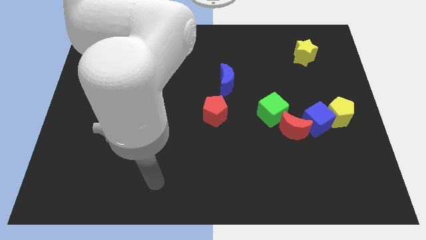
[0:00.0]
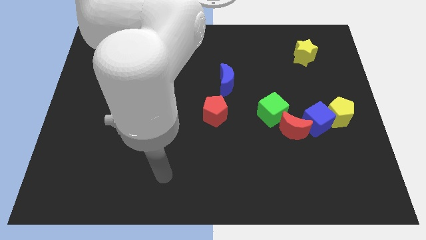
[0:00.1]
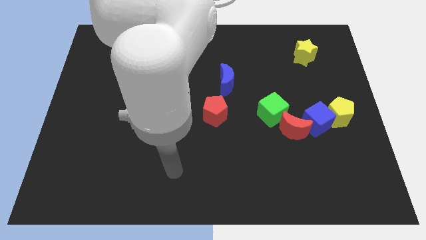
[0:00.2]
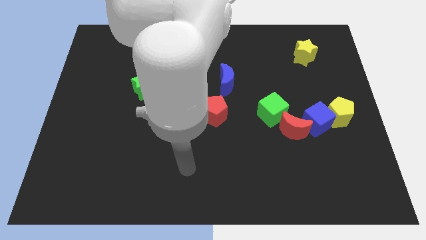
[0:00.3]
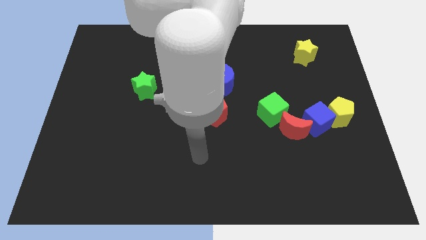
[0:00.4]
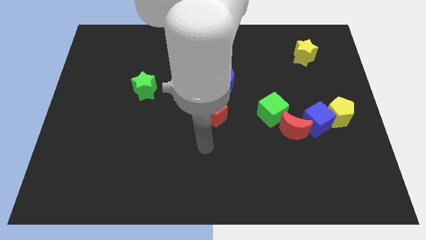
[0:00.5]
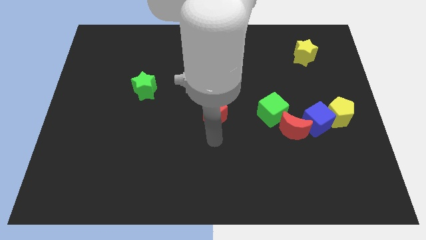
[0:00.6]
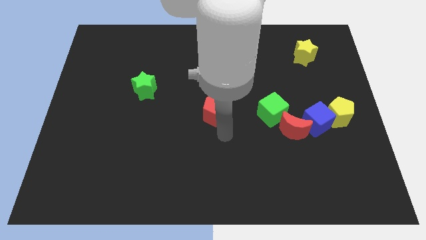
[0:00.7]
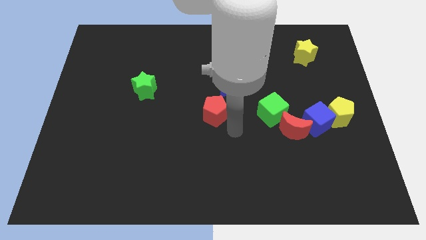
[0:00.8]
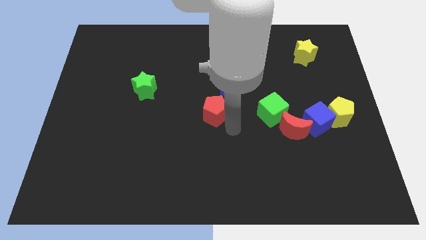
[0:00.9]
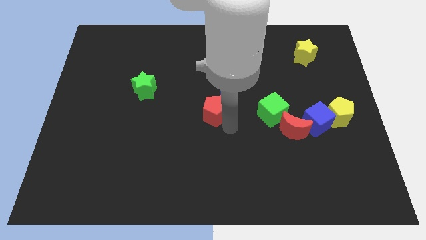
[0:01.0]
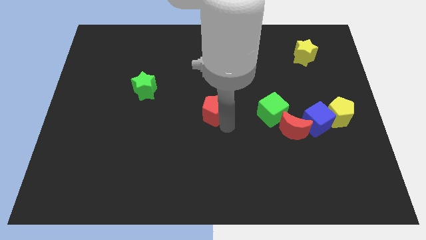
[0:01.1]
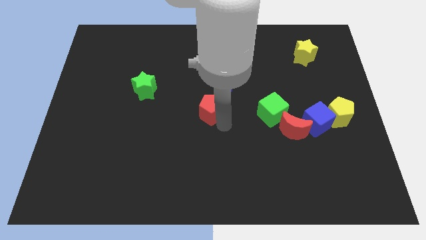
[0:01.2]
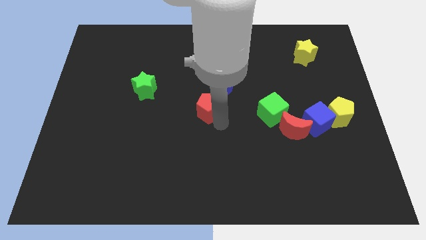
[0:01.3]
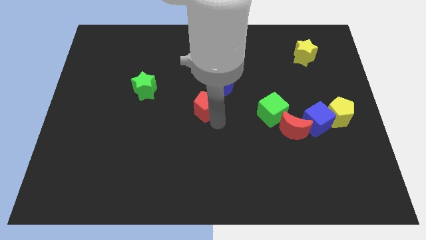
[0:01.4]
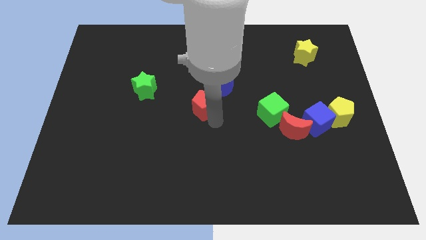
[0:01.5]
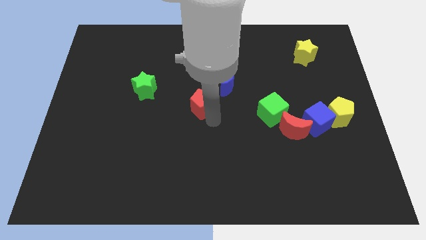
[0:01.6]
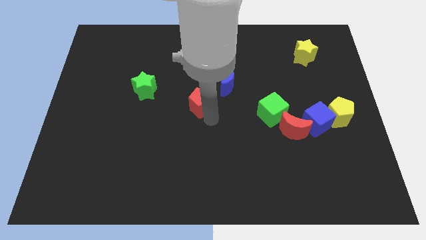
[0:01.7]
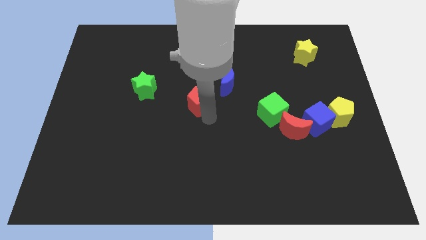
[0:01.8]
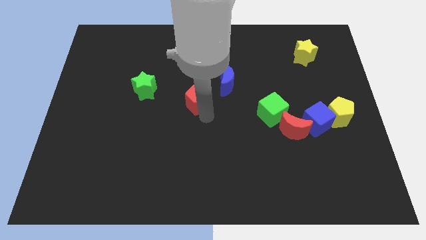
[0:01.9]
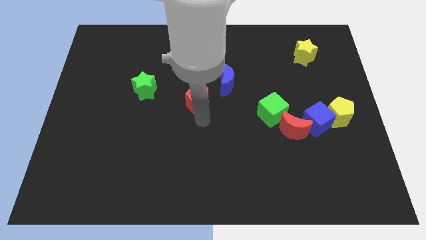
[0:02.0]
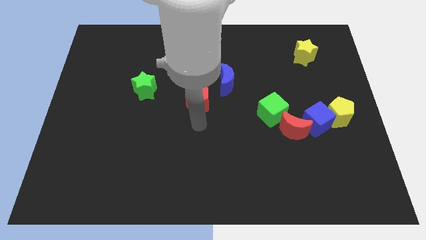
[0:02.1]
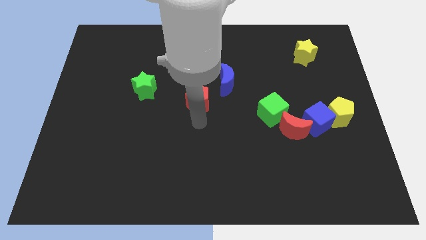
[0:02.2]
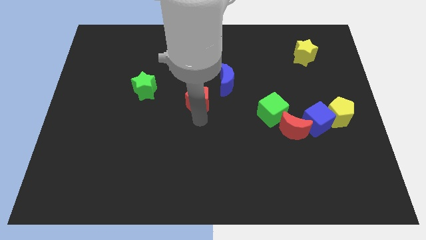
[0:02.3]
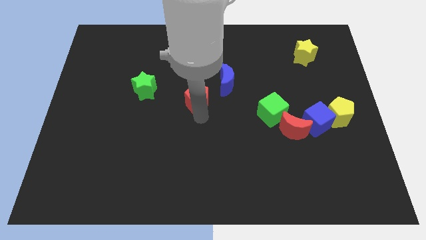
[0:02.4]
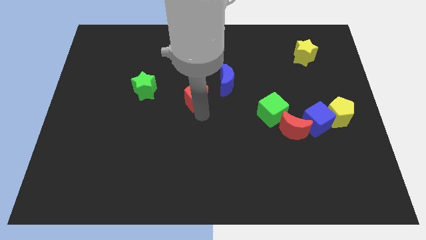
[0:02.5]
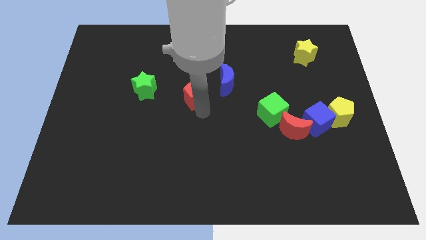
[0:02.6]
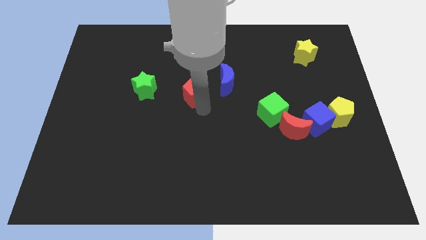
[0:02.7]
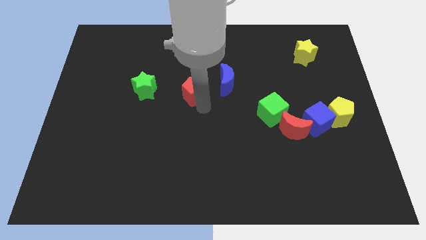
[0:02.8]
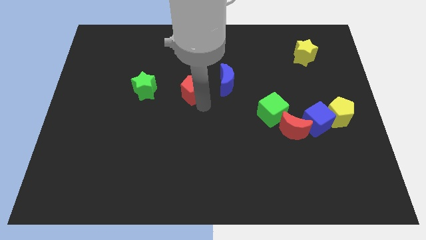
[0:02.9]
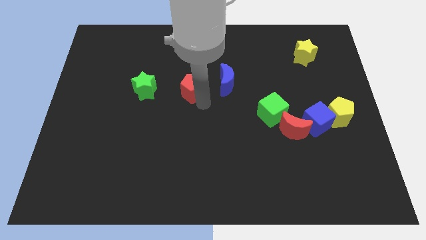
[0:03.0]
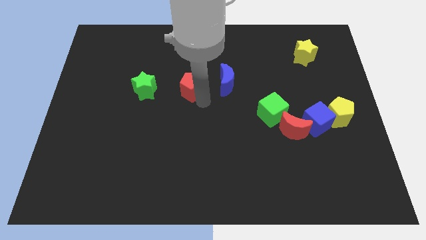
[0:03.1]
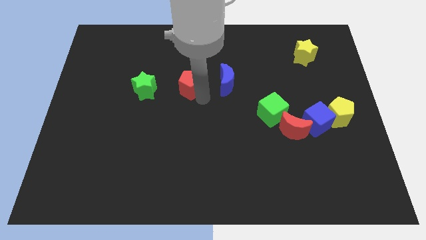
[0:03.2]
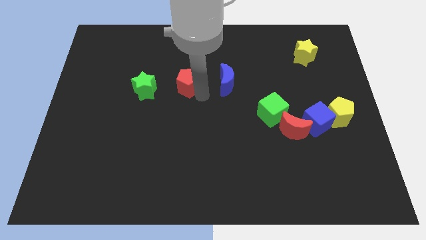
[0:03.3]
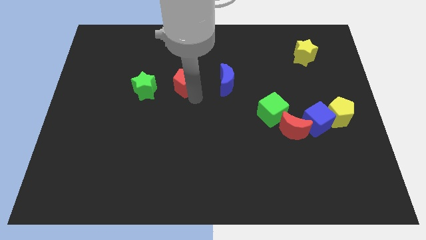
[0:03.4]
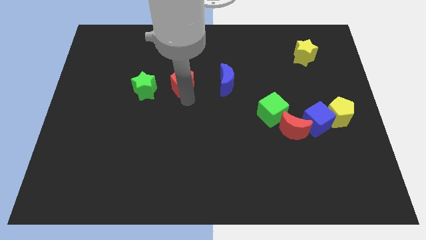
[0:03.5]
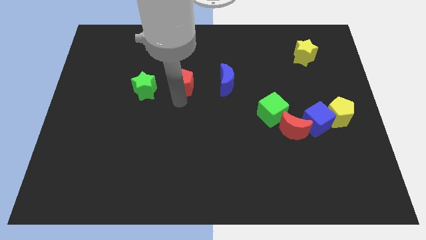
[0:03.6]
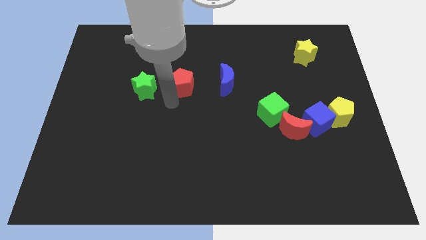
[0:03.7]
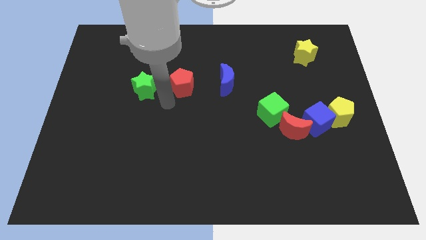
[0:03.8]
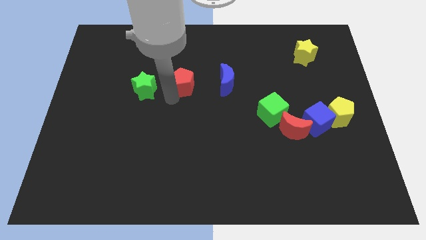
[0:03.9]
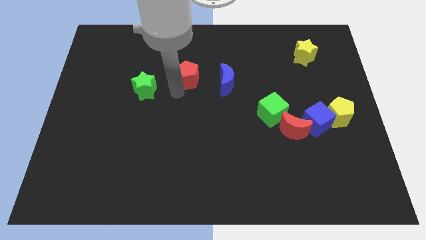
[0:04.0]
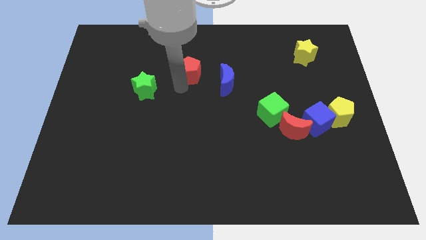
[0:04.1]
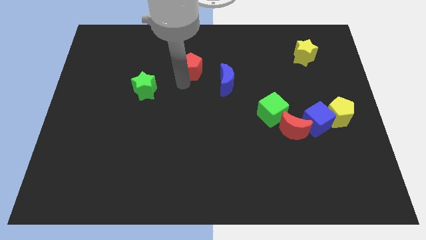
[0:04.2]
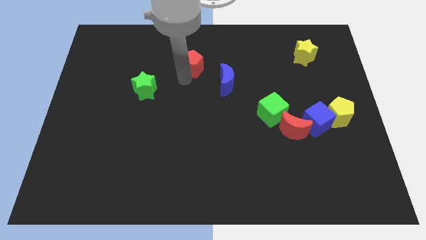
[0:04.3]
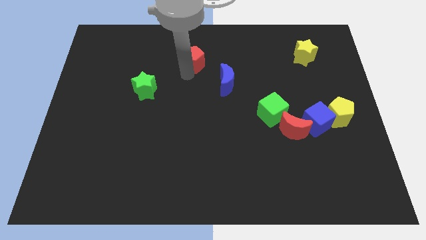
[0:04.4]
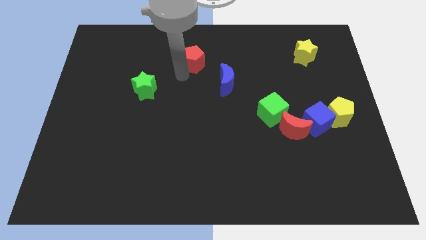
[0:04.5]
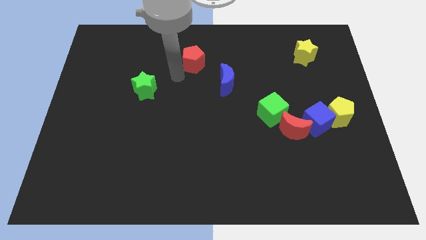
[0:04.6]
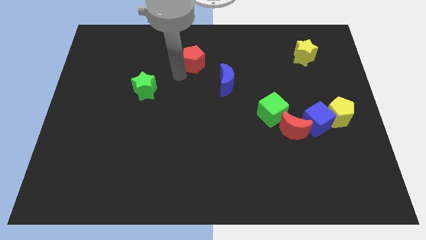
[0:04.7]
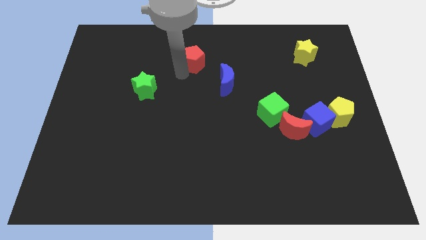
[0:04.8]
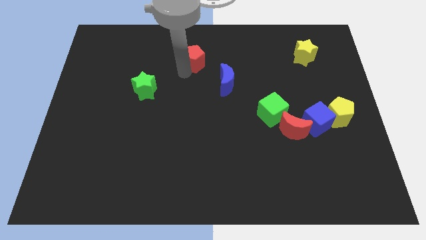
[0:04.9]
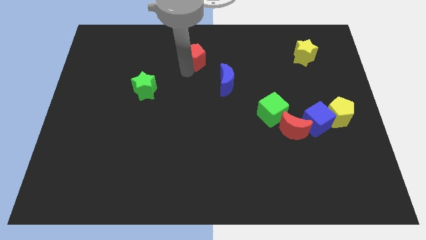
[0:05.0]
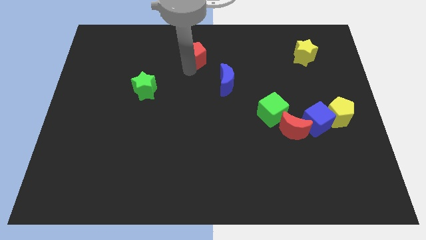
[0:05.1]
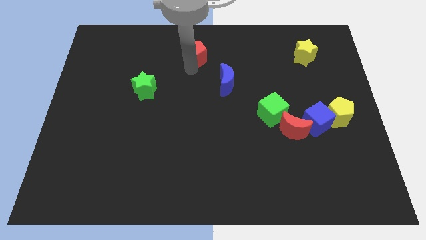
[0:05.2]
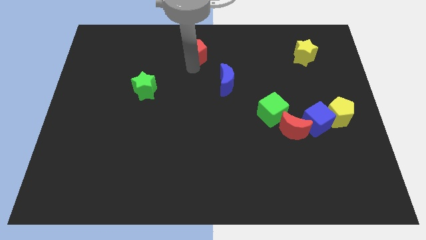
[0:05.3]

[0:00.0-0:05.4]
move the red pentagon to the top

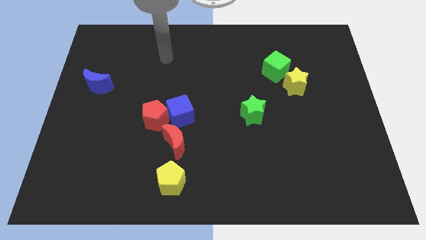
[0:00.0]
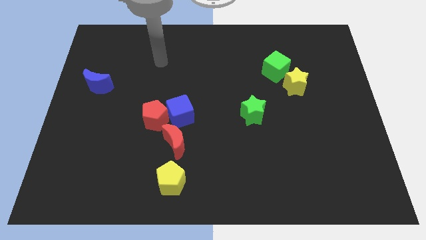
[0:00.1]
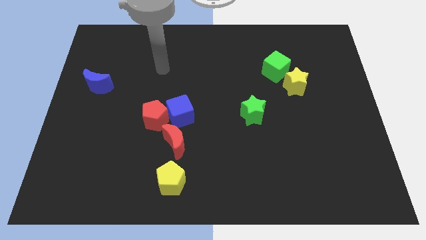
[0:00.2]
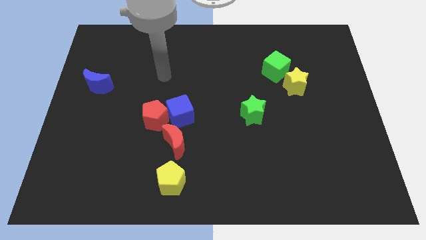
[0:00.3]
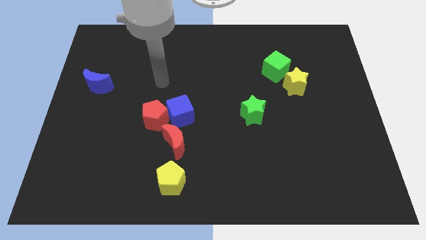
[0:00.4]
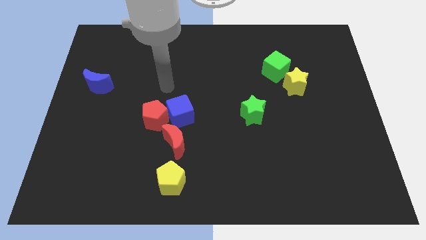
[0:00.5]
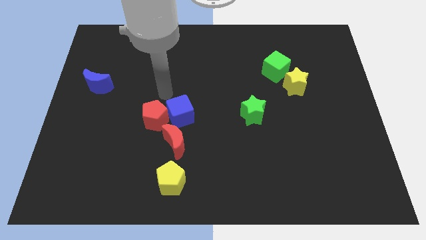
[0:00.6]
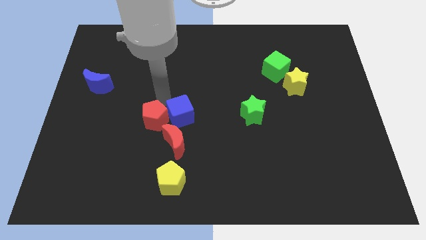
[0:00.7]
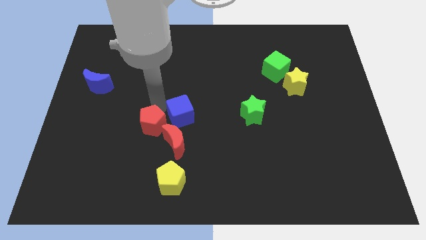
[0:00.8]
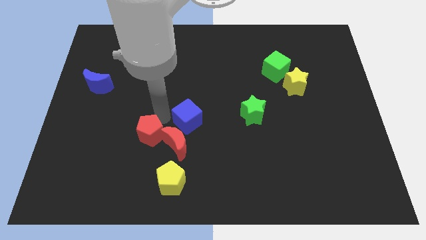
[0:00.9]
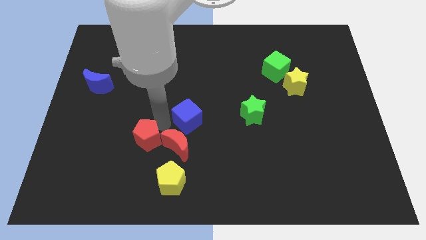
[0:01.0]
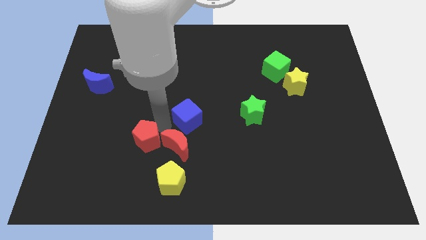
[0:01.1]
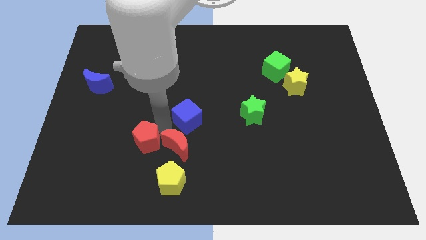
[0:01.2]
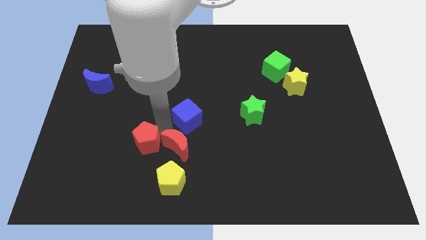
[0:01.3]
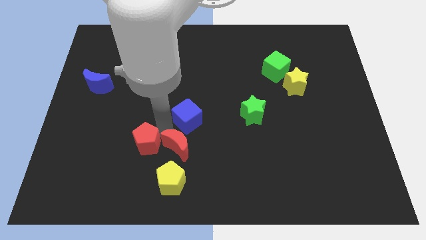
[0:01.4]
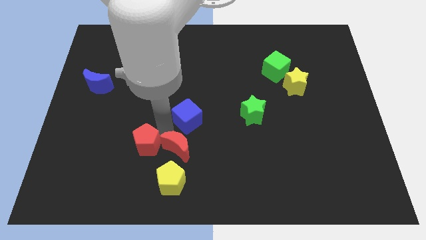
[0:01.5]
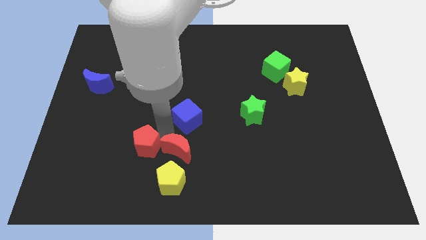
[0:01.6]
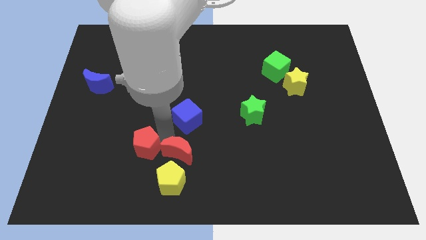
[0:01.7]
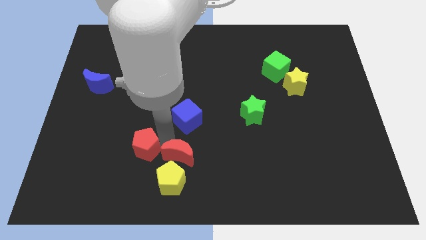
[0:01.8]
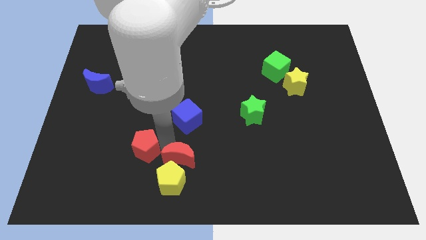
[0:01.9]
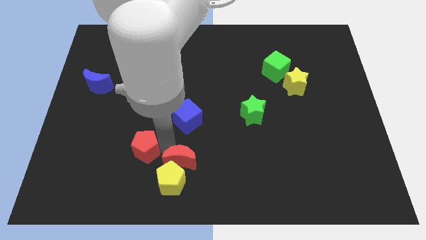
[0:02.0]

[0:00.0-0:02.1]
slide the red moon to the bottom side

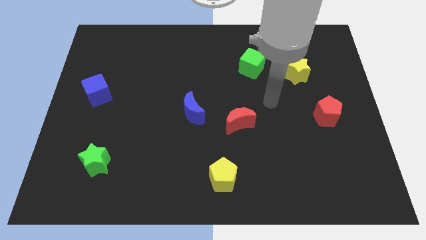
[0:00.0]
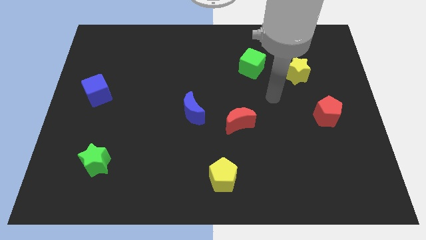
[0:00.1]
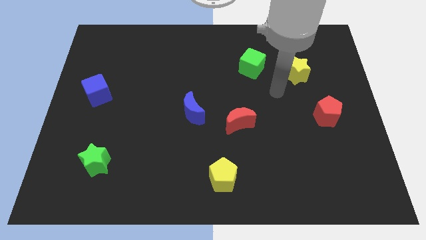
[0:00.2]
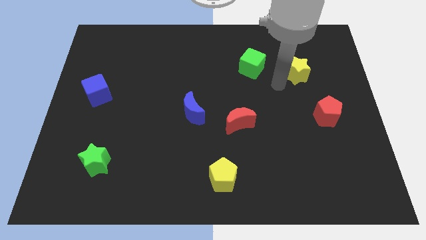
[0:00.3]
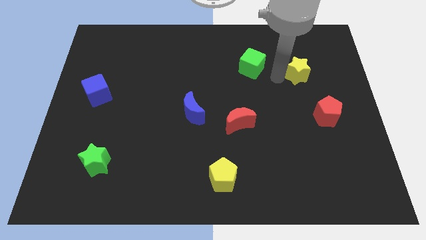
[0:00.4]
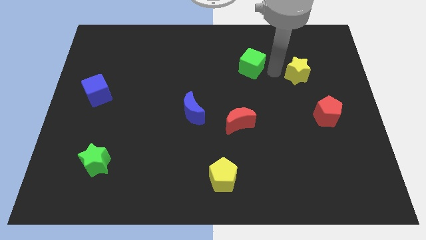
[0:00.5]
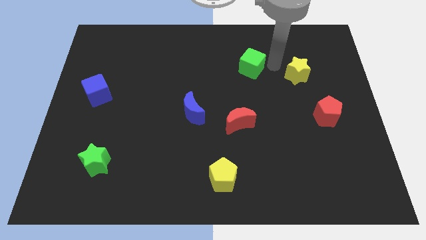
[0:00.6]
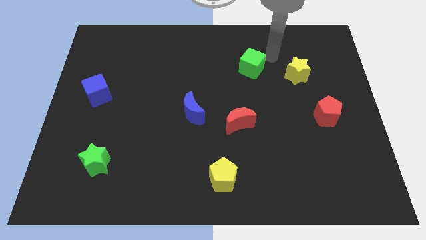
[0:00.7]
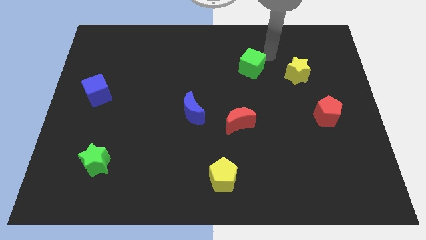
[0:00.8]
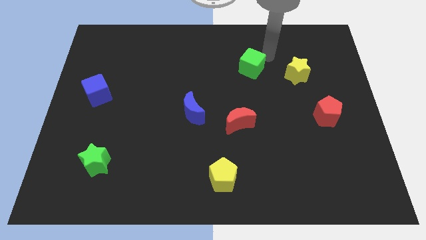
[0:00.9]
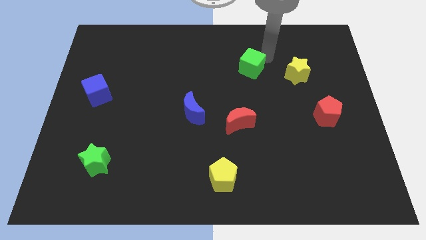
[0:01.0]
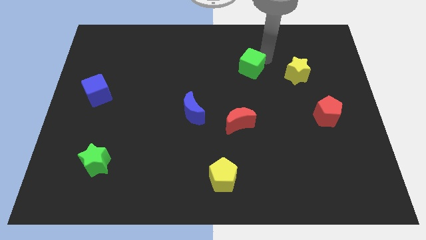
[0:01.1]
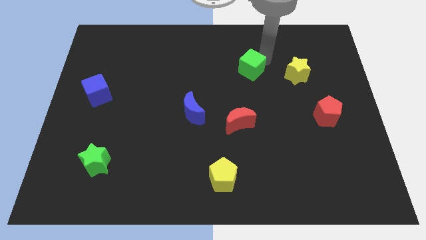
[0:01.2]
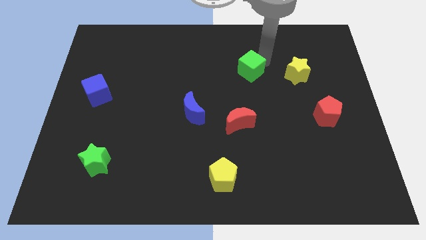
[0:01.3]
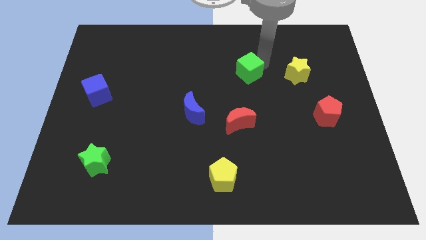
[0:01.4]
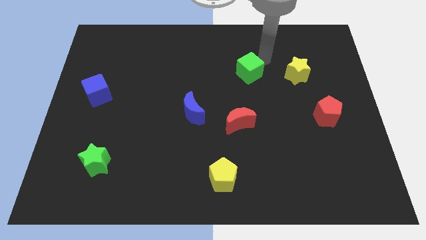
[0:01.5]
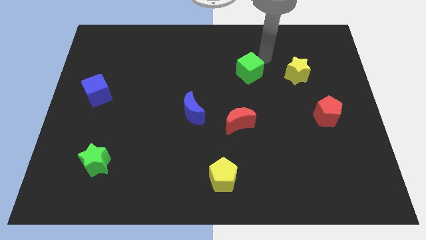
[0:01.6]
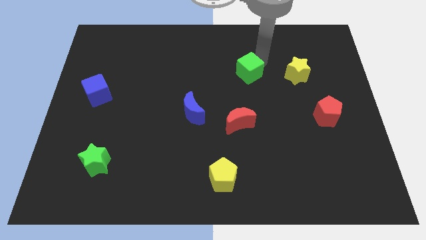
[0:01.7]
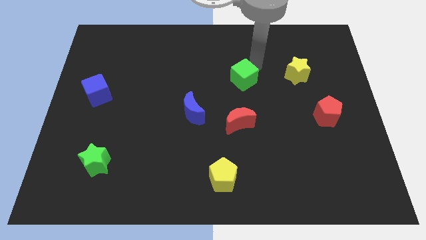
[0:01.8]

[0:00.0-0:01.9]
slide the green cube to the center of the board
